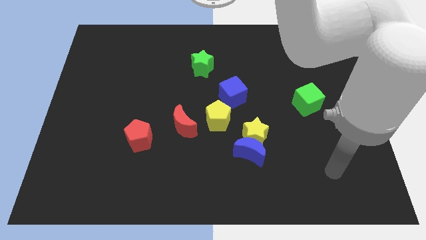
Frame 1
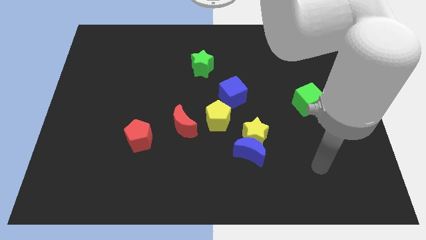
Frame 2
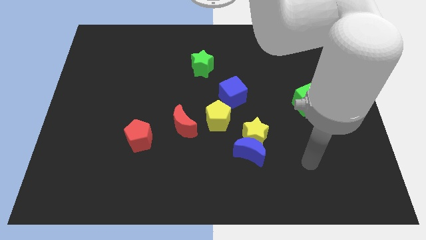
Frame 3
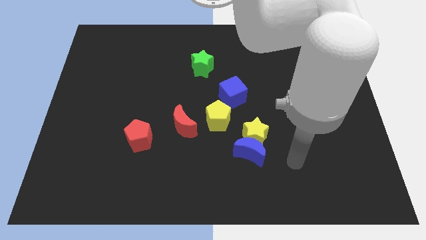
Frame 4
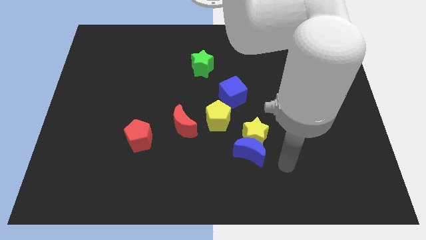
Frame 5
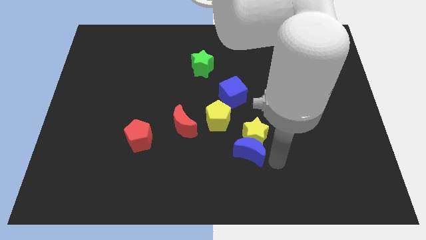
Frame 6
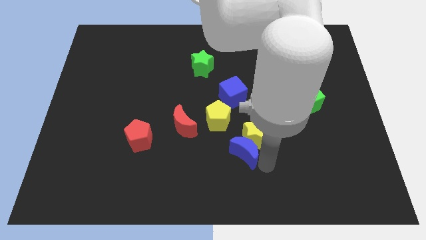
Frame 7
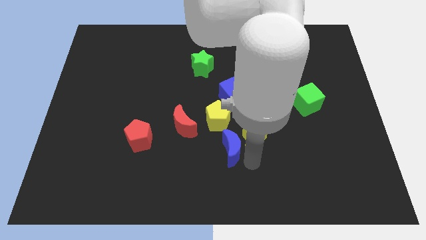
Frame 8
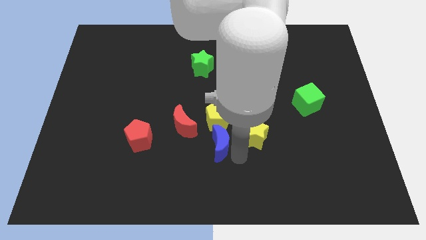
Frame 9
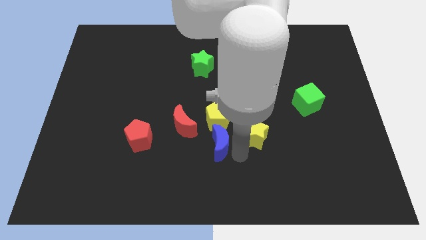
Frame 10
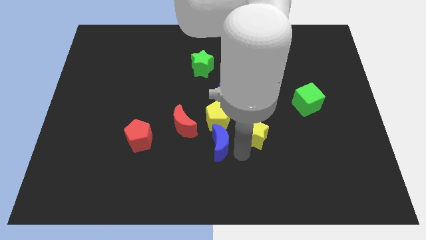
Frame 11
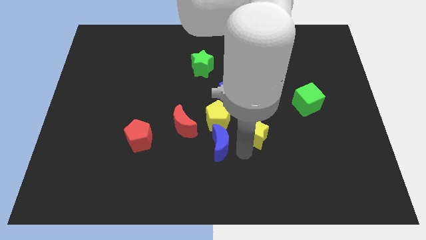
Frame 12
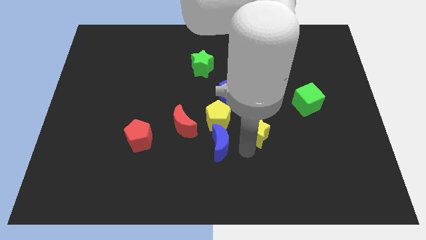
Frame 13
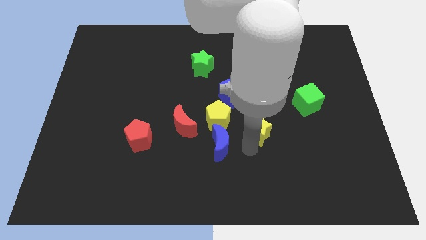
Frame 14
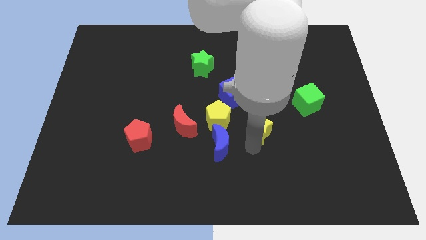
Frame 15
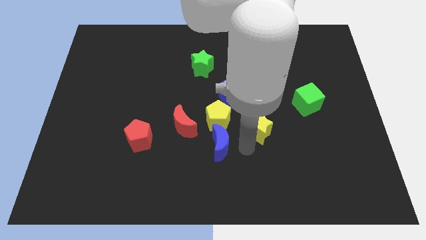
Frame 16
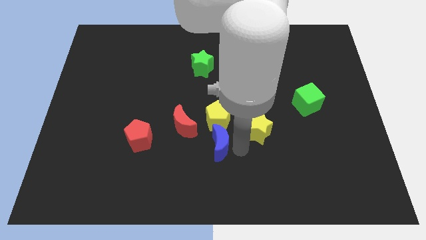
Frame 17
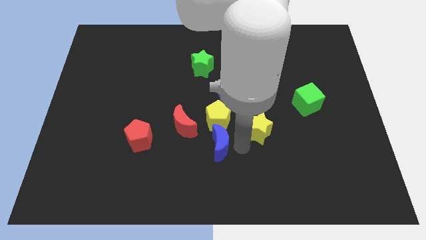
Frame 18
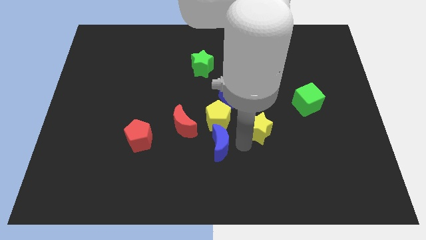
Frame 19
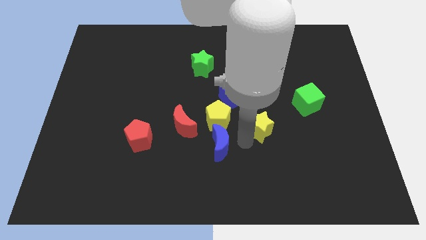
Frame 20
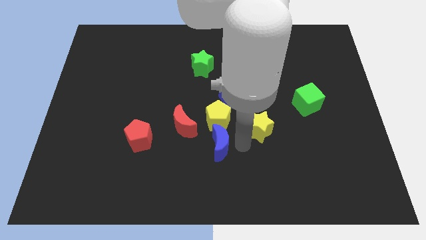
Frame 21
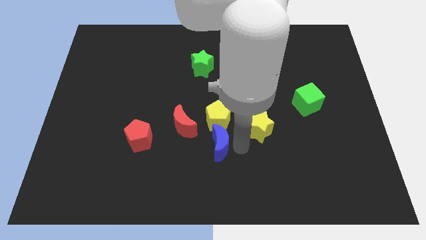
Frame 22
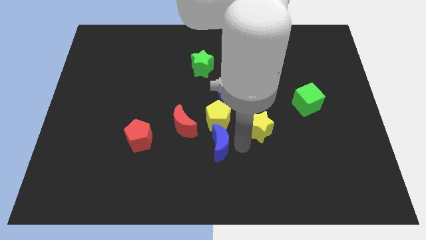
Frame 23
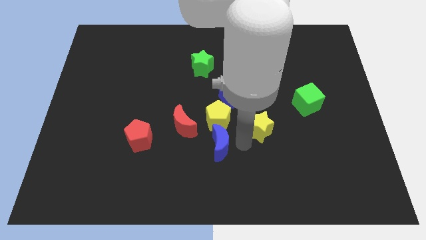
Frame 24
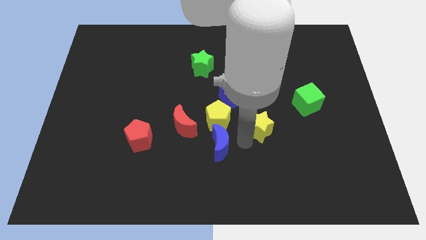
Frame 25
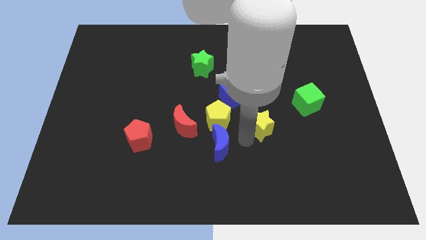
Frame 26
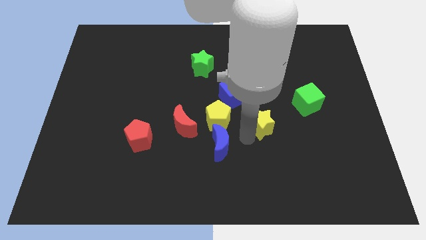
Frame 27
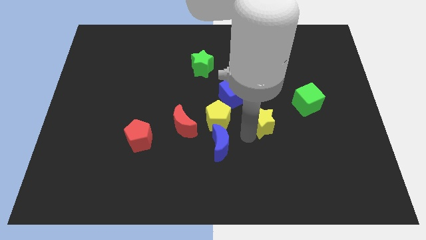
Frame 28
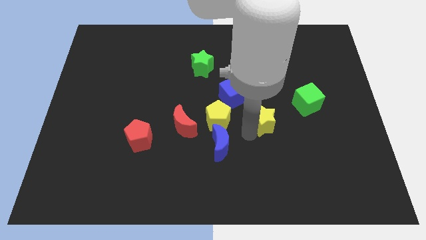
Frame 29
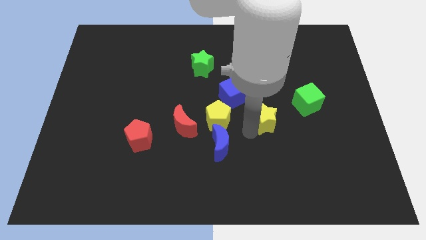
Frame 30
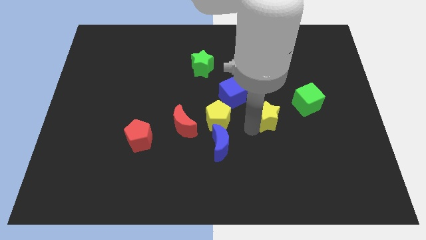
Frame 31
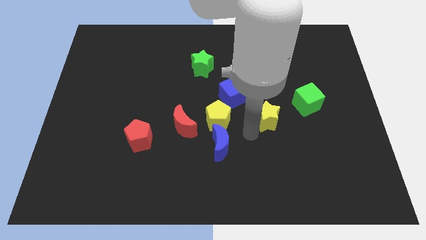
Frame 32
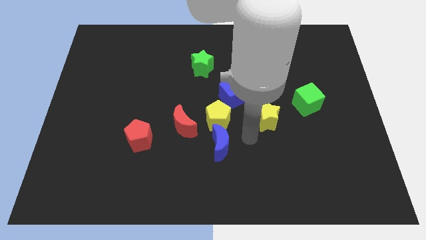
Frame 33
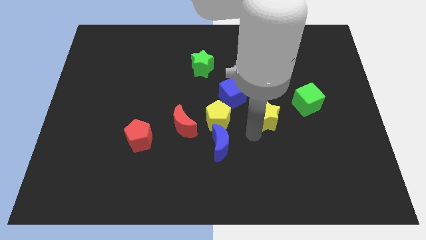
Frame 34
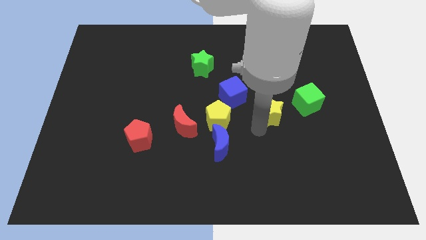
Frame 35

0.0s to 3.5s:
slide the yellow star upwards and to the right a little

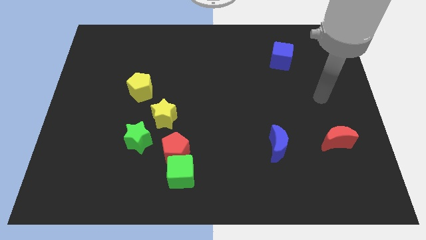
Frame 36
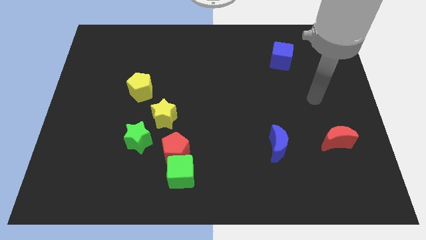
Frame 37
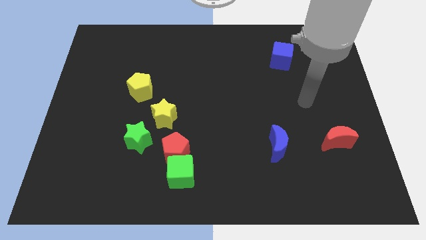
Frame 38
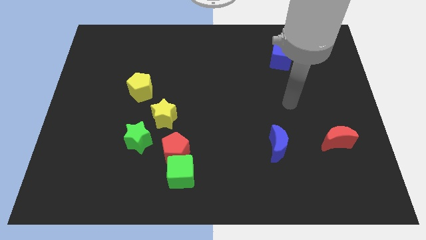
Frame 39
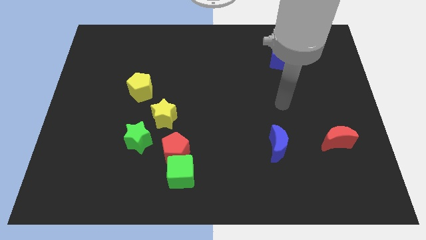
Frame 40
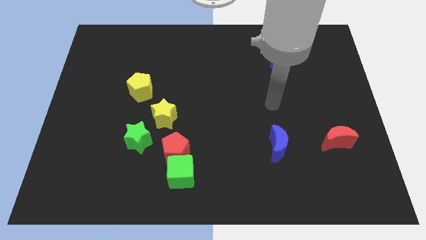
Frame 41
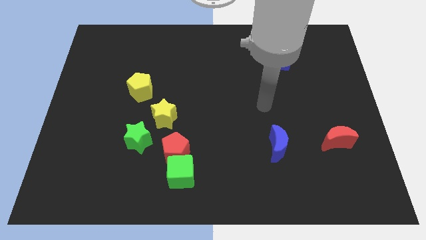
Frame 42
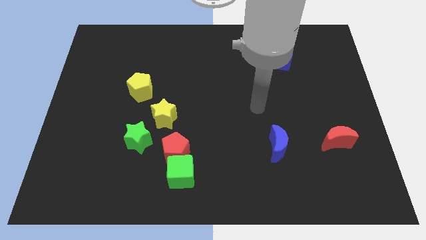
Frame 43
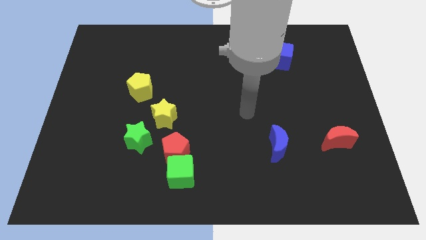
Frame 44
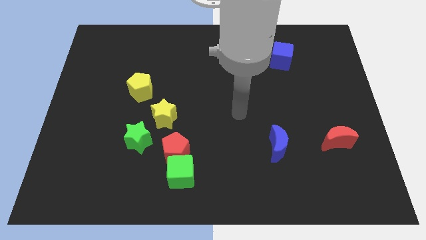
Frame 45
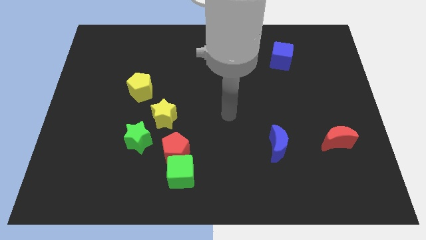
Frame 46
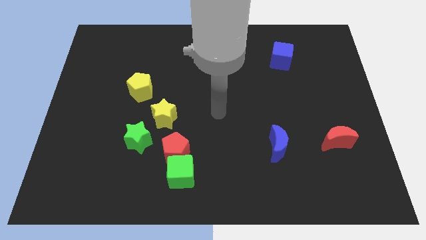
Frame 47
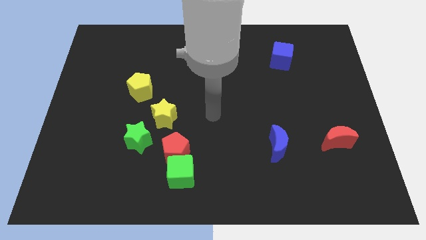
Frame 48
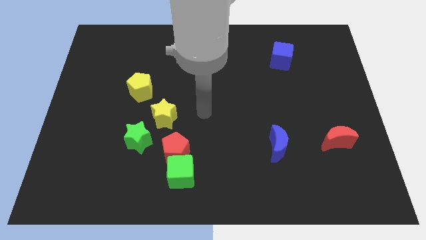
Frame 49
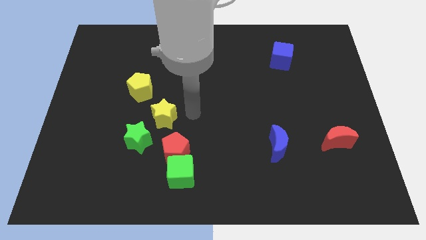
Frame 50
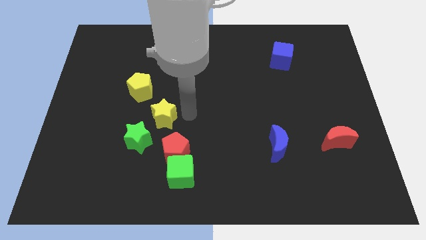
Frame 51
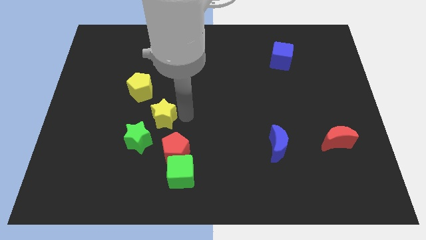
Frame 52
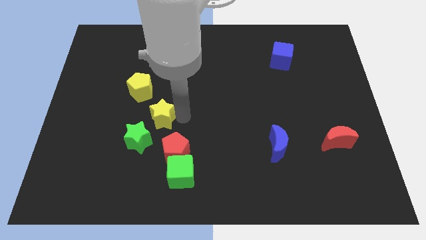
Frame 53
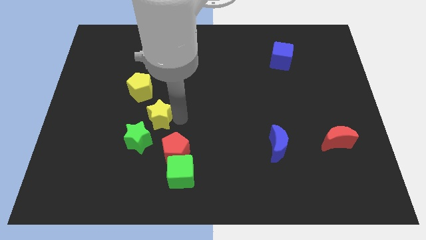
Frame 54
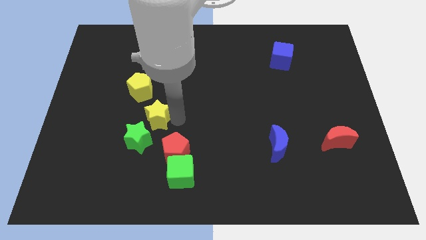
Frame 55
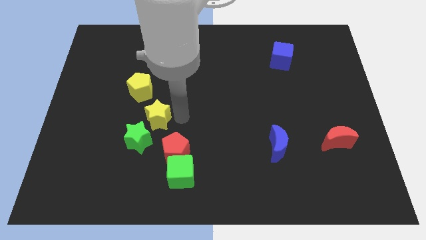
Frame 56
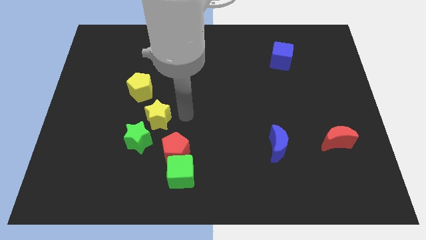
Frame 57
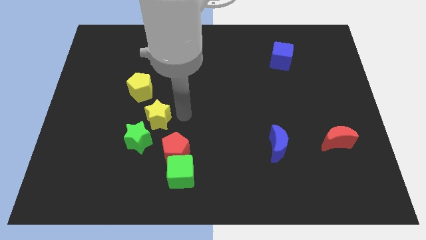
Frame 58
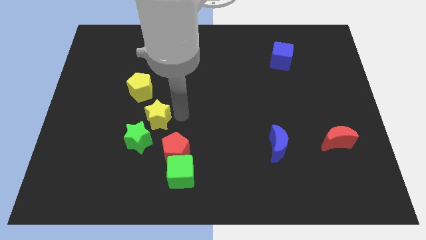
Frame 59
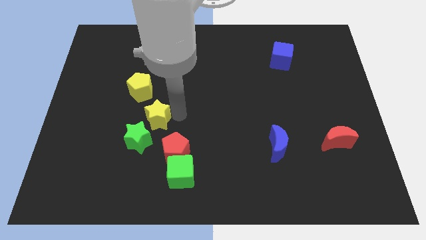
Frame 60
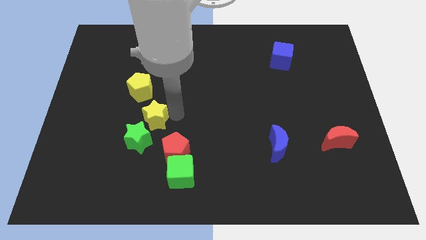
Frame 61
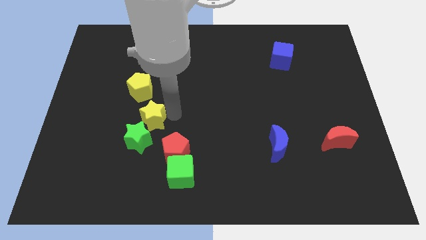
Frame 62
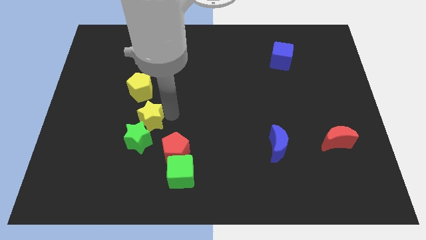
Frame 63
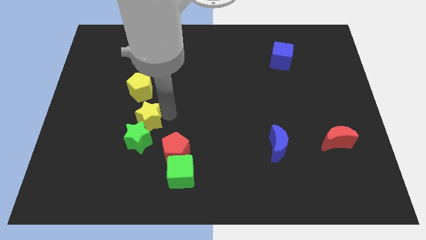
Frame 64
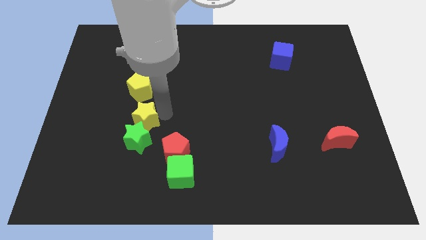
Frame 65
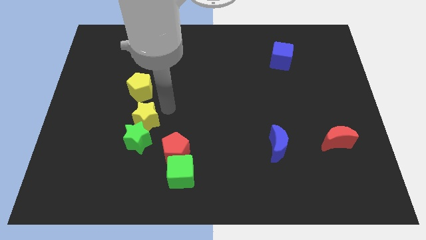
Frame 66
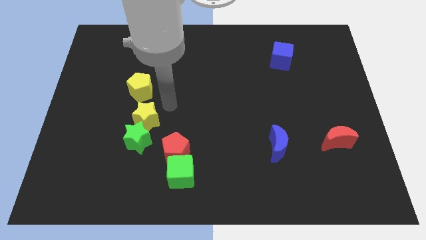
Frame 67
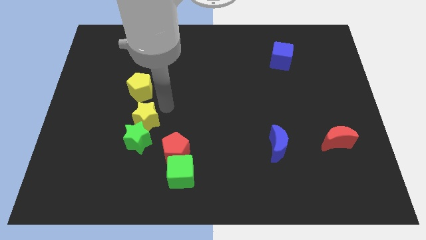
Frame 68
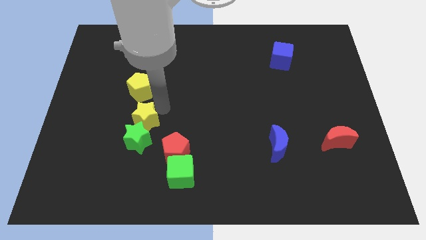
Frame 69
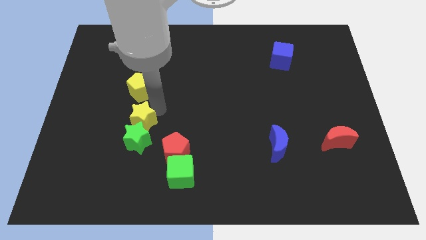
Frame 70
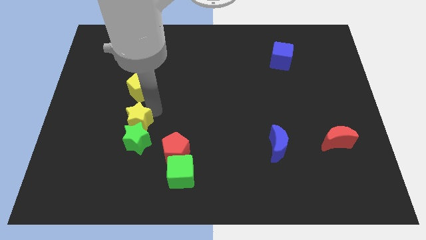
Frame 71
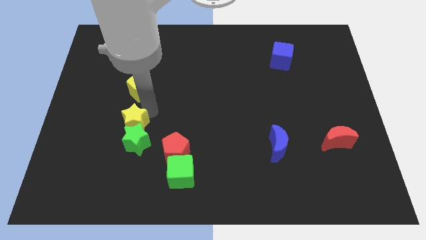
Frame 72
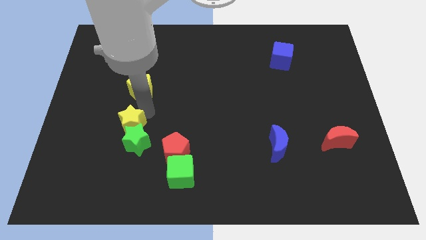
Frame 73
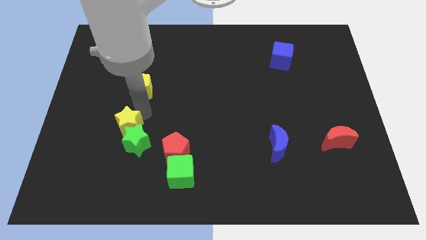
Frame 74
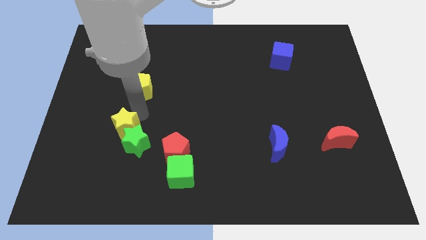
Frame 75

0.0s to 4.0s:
slightly slide the yellow star down and then left

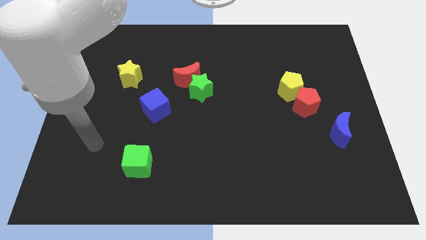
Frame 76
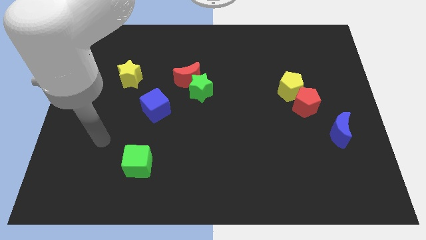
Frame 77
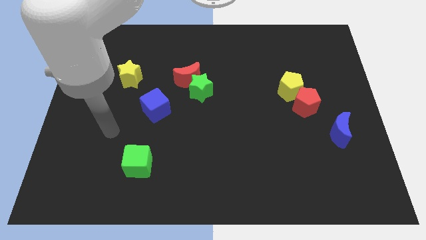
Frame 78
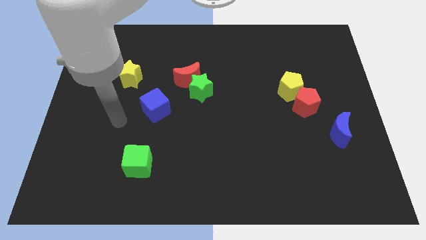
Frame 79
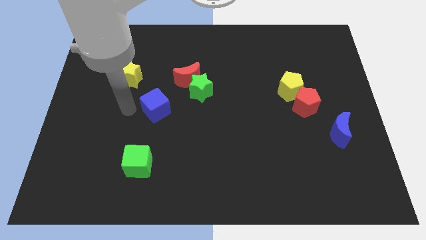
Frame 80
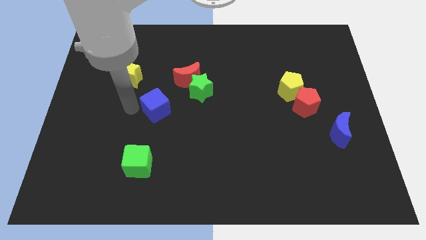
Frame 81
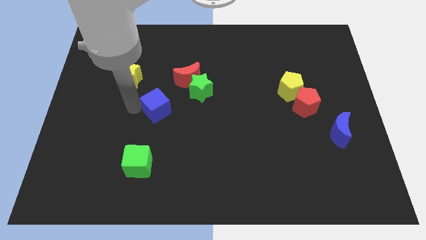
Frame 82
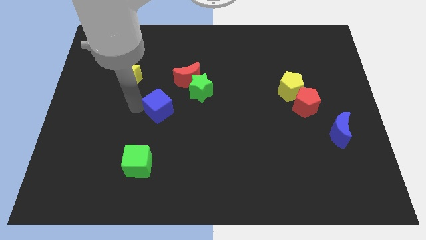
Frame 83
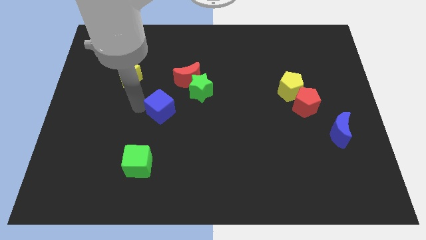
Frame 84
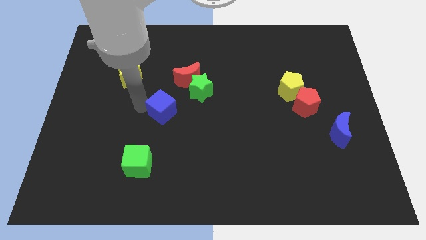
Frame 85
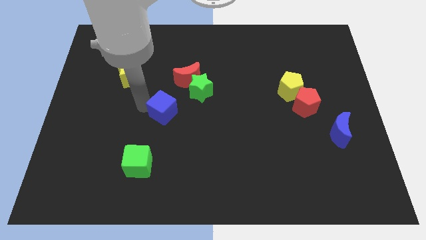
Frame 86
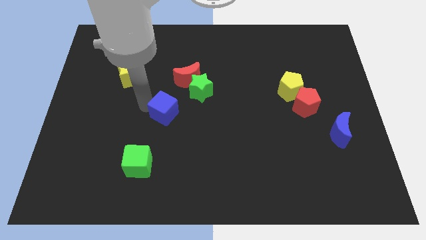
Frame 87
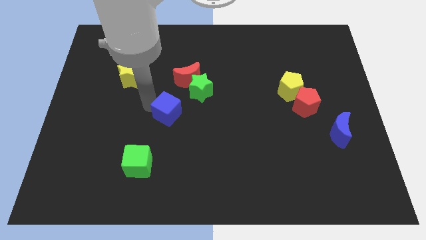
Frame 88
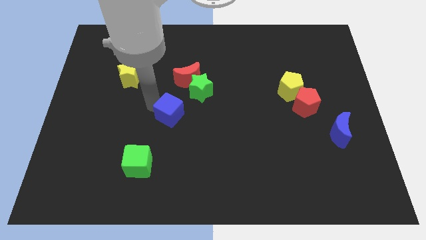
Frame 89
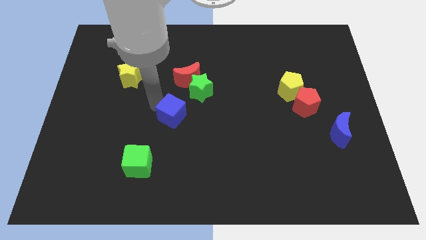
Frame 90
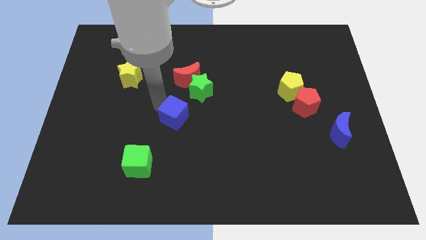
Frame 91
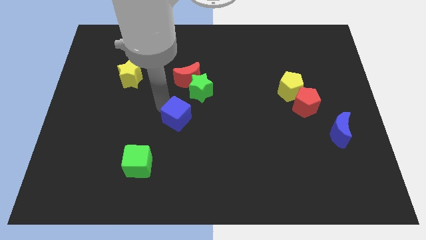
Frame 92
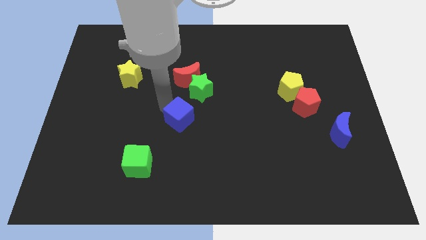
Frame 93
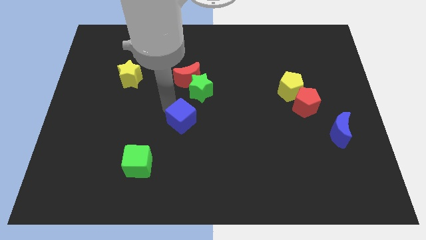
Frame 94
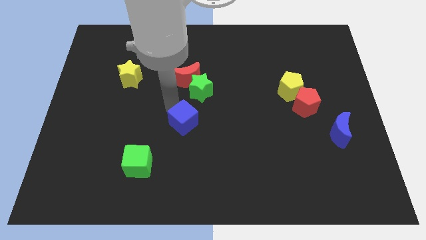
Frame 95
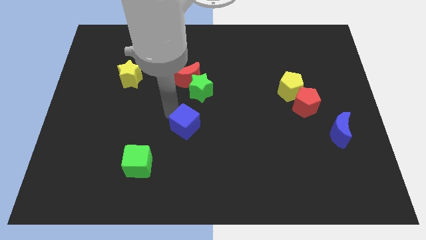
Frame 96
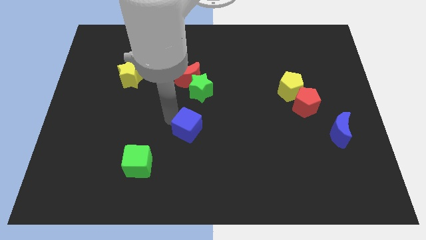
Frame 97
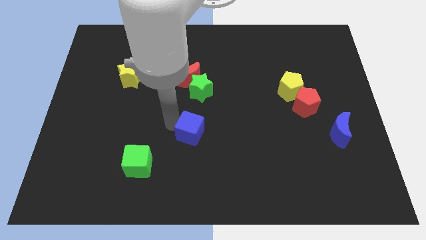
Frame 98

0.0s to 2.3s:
push the blue cube to the right a little bit
